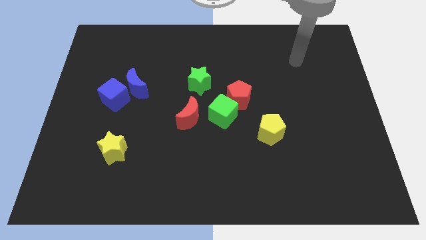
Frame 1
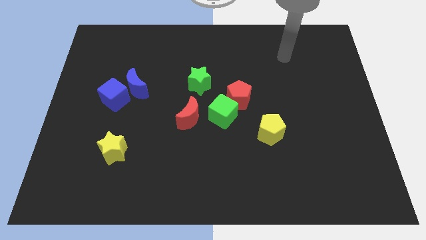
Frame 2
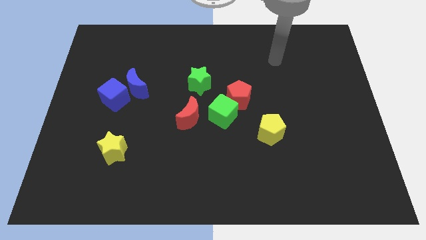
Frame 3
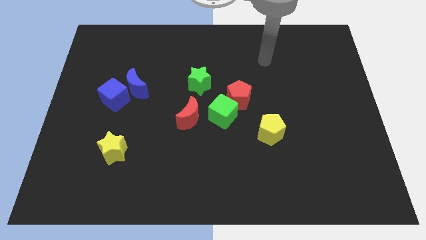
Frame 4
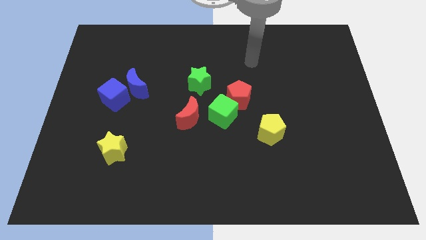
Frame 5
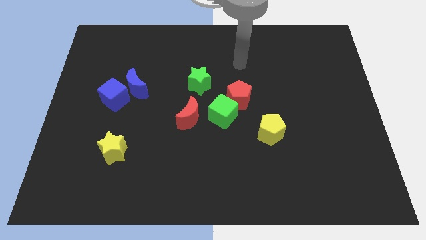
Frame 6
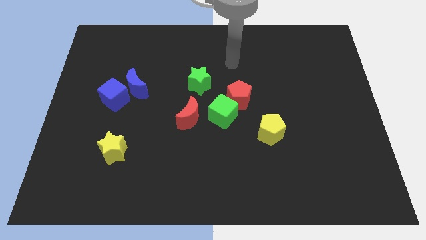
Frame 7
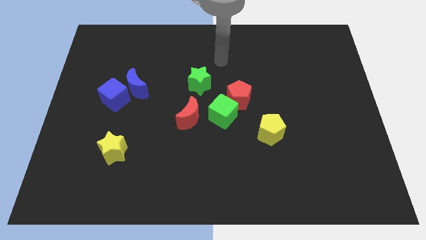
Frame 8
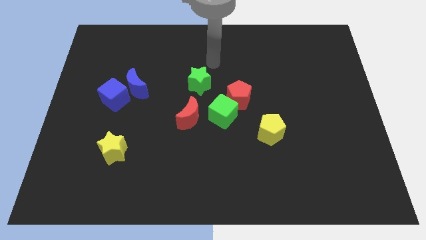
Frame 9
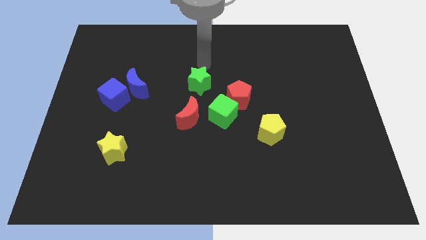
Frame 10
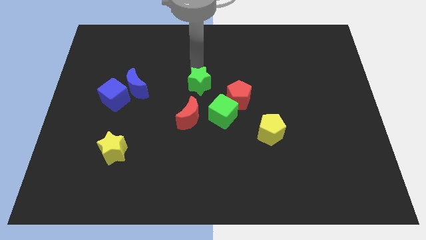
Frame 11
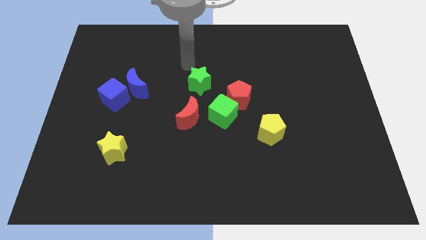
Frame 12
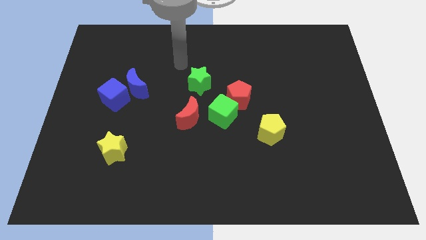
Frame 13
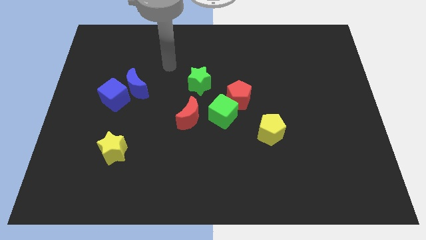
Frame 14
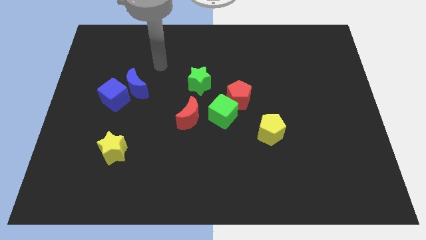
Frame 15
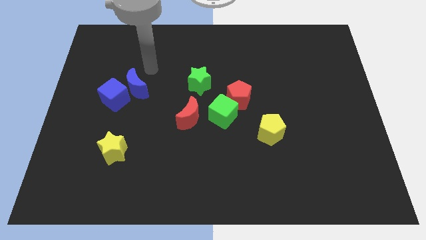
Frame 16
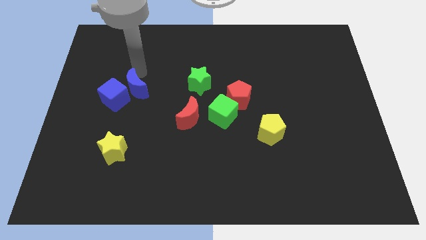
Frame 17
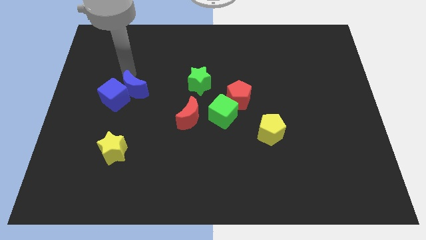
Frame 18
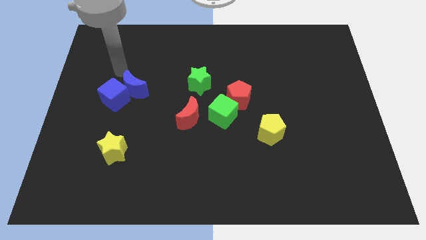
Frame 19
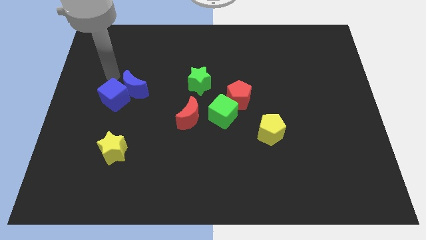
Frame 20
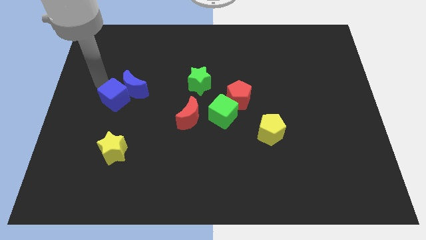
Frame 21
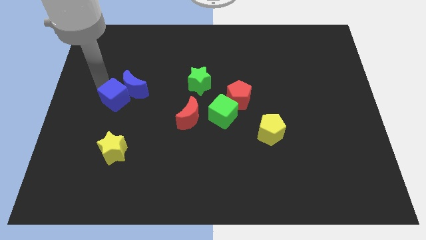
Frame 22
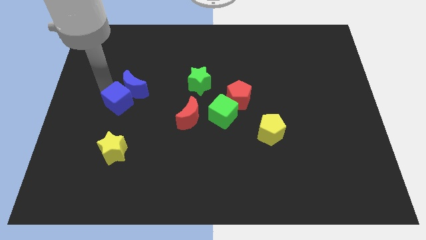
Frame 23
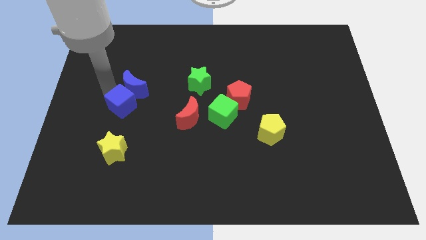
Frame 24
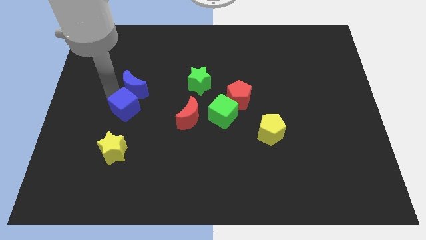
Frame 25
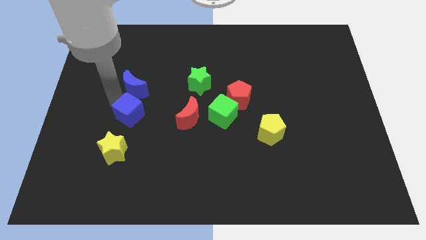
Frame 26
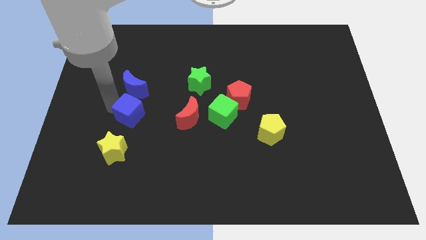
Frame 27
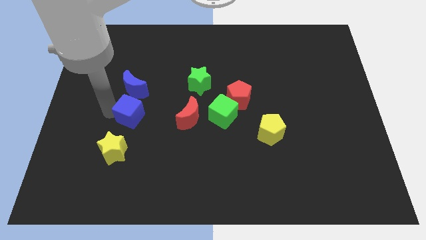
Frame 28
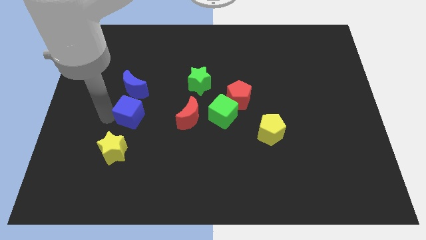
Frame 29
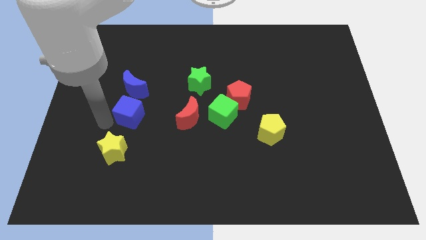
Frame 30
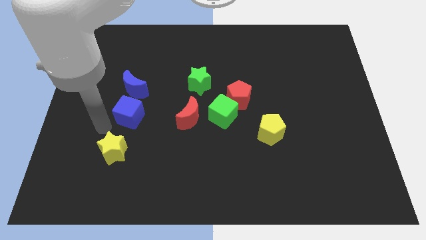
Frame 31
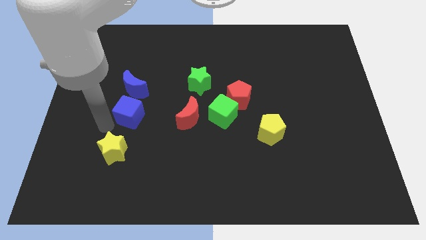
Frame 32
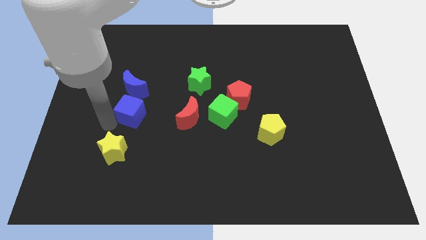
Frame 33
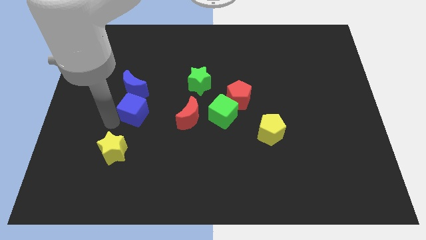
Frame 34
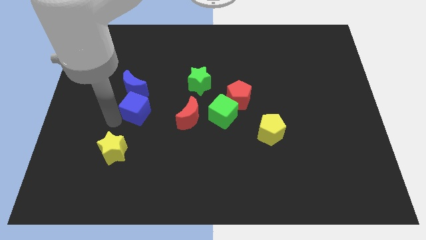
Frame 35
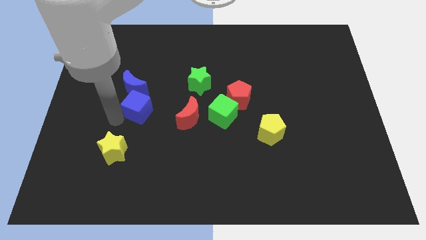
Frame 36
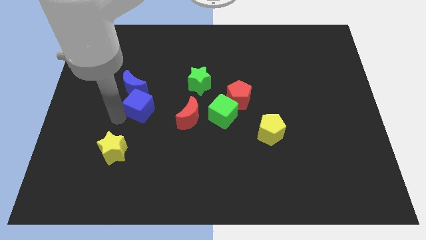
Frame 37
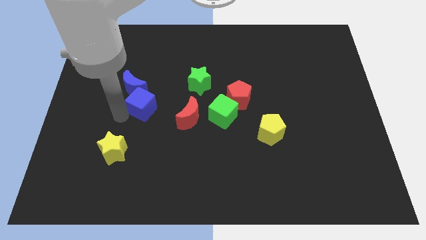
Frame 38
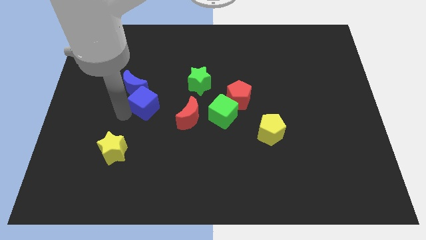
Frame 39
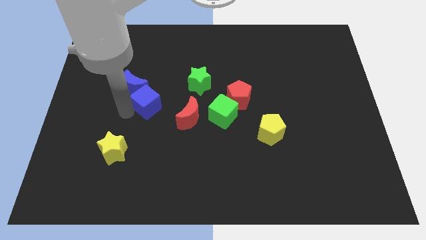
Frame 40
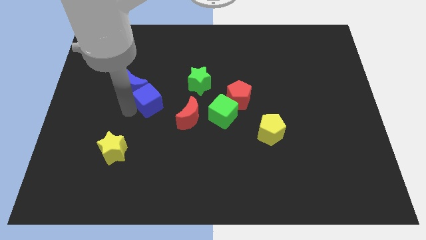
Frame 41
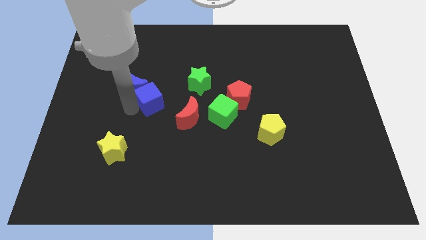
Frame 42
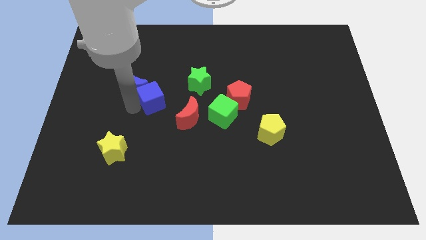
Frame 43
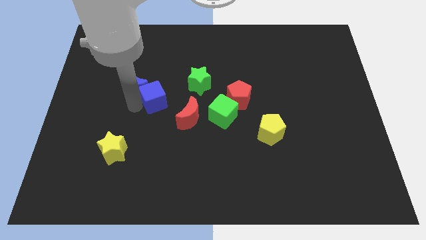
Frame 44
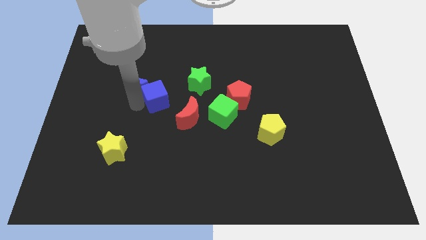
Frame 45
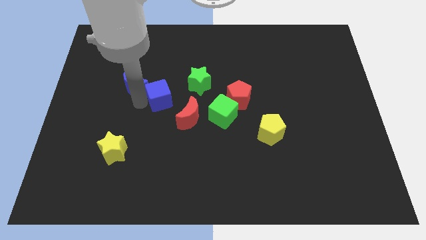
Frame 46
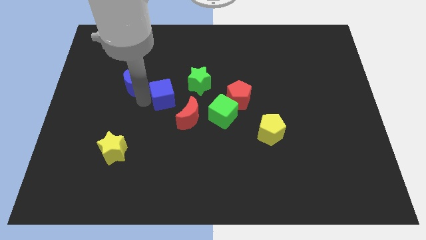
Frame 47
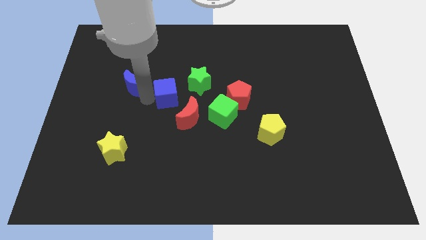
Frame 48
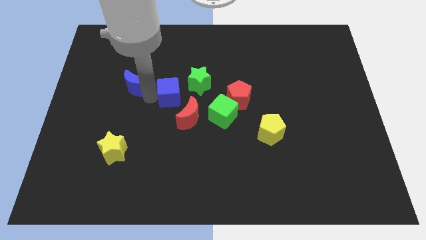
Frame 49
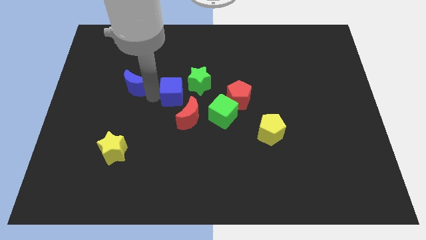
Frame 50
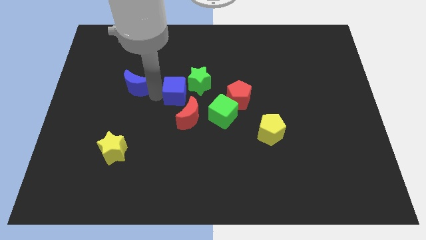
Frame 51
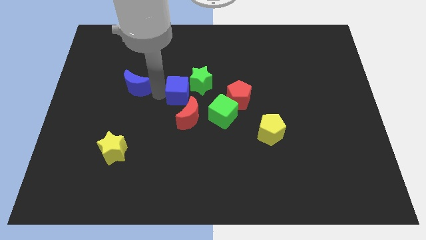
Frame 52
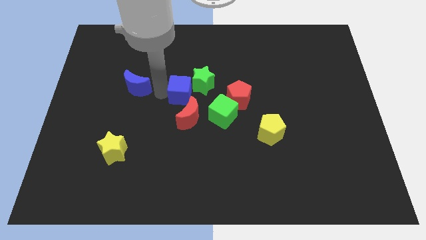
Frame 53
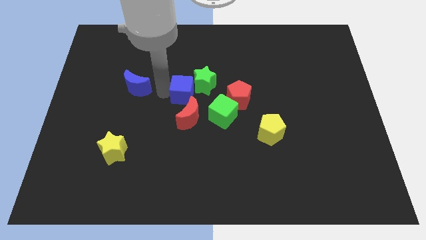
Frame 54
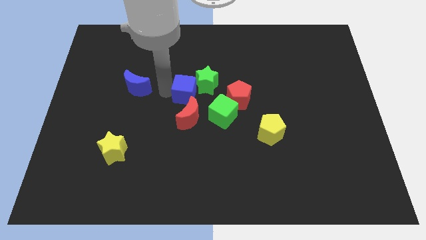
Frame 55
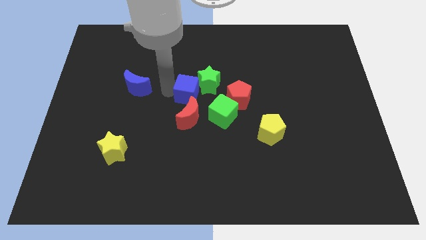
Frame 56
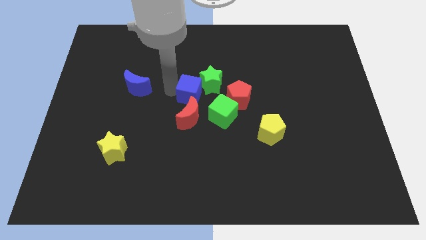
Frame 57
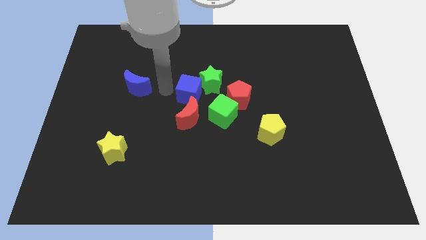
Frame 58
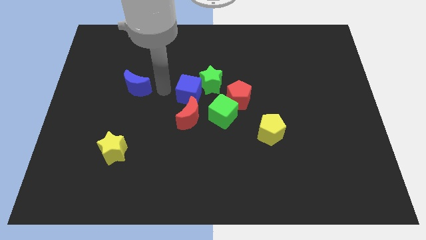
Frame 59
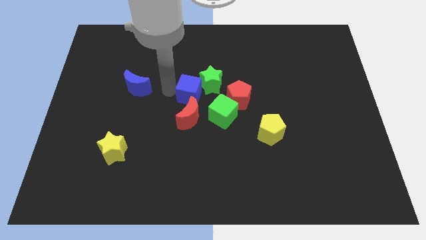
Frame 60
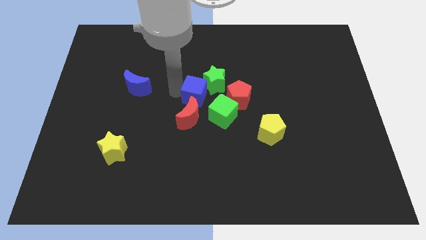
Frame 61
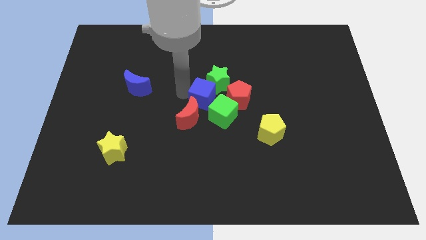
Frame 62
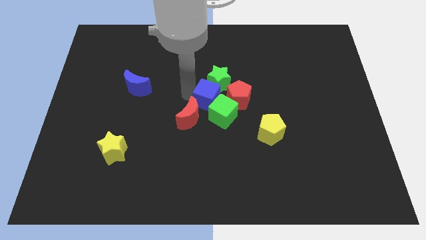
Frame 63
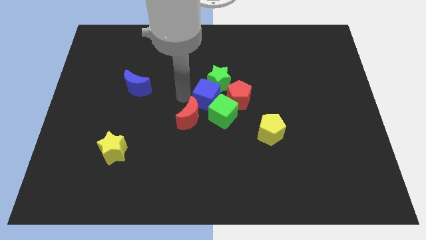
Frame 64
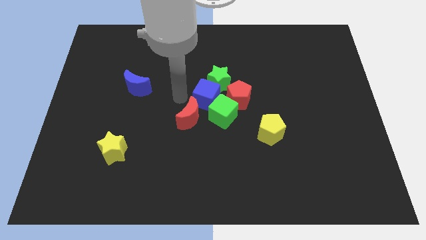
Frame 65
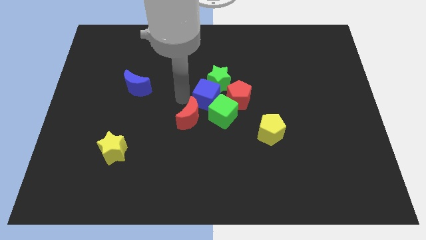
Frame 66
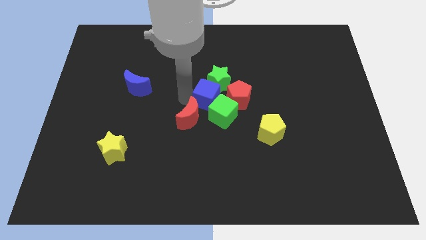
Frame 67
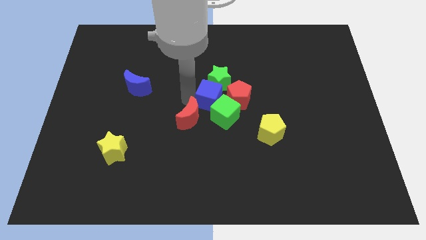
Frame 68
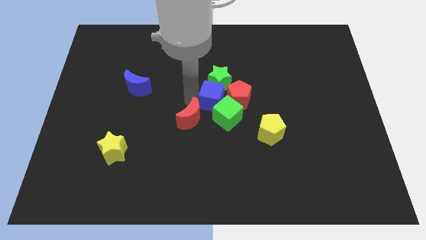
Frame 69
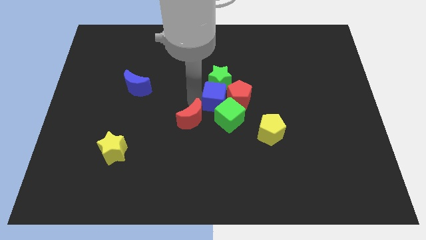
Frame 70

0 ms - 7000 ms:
move the blue cube next to the red pentagon
